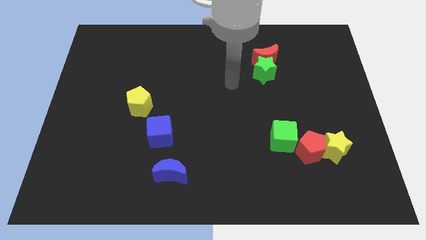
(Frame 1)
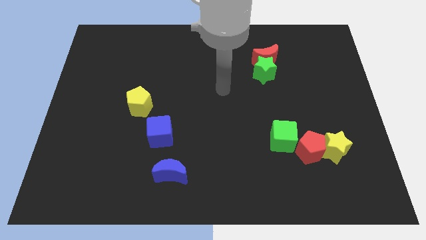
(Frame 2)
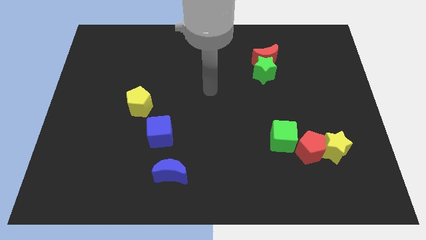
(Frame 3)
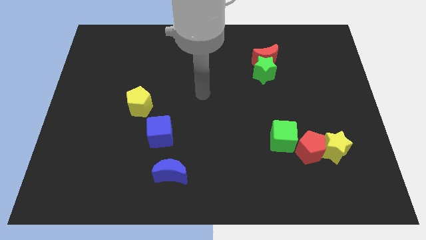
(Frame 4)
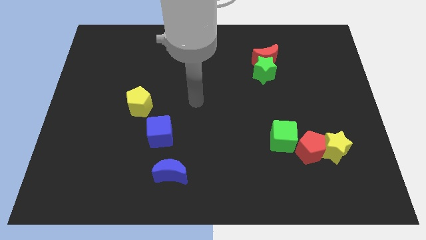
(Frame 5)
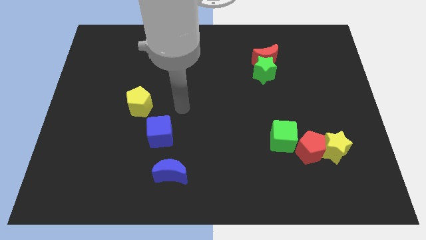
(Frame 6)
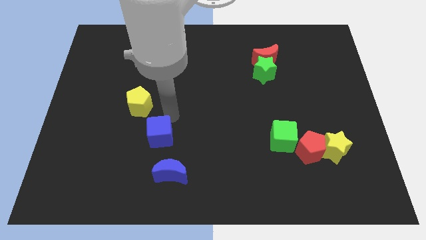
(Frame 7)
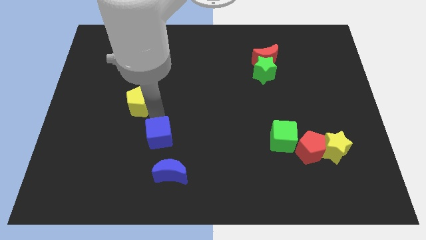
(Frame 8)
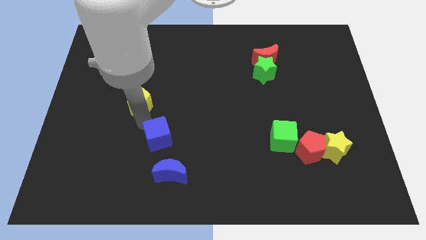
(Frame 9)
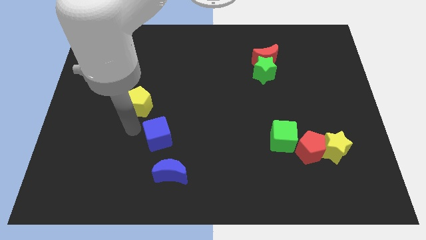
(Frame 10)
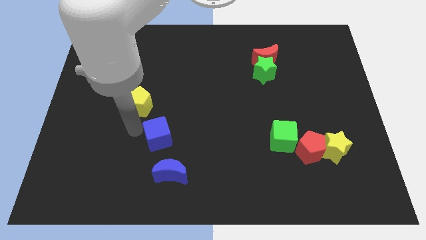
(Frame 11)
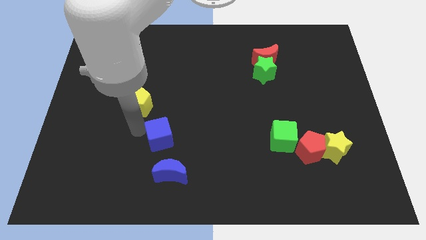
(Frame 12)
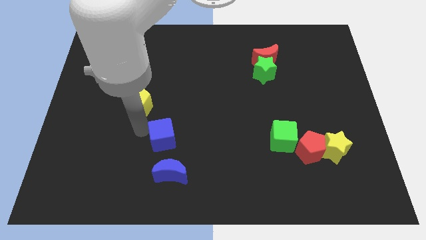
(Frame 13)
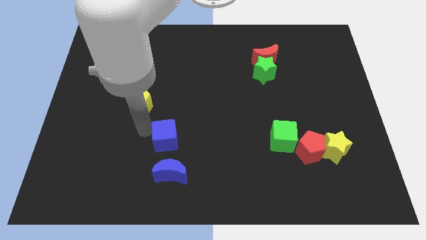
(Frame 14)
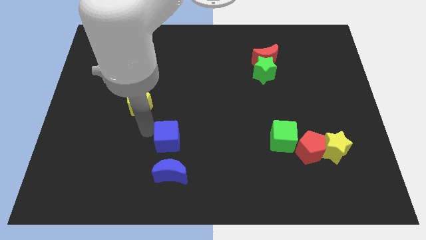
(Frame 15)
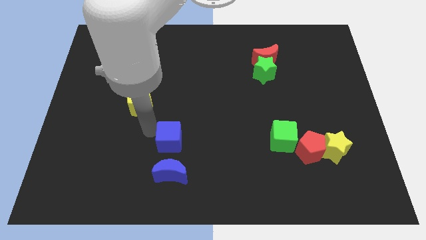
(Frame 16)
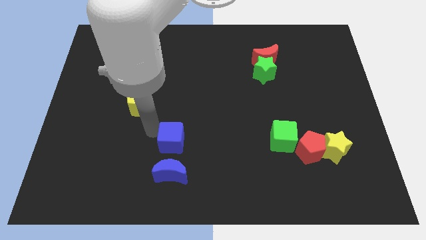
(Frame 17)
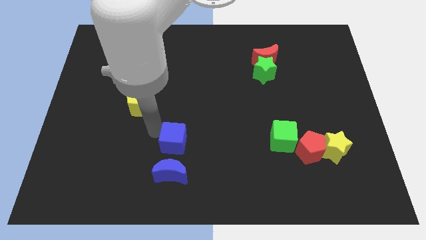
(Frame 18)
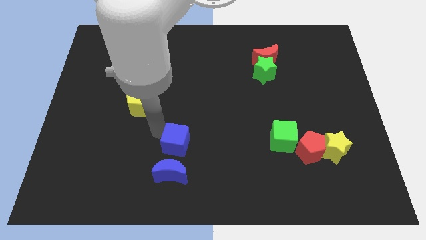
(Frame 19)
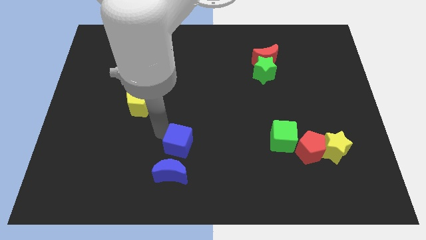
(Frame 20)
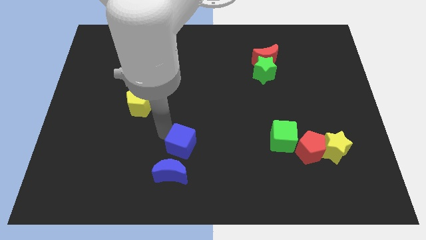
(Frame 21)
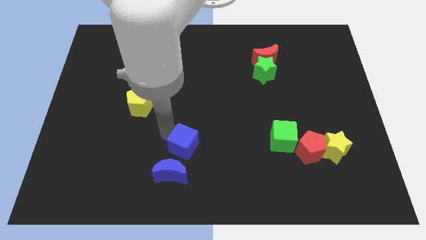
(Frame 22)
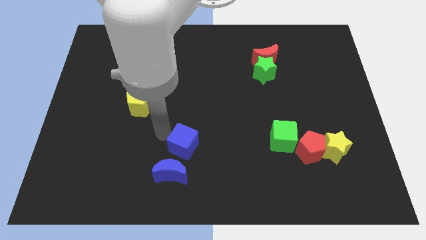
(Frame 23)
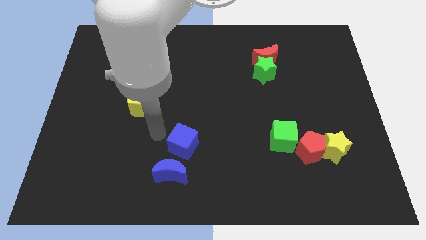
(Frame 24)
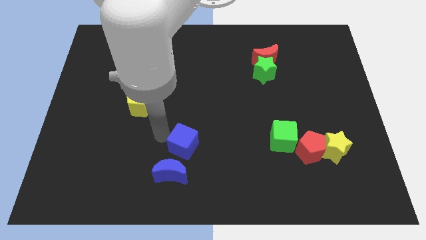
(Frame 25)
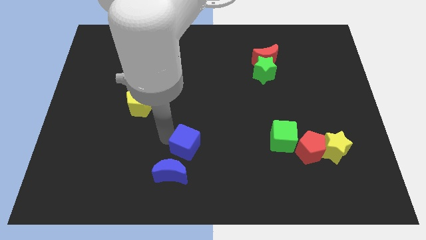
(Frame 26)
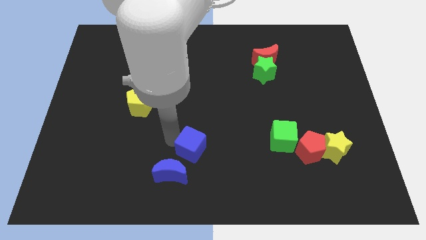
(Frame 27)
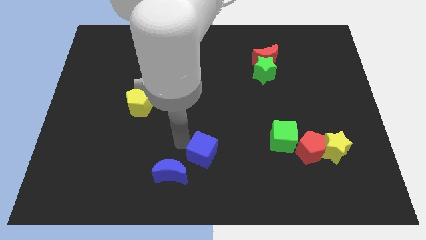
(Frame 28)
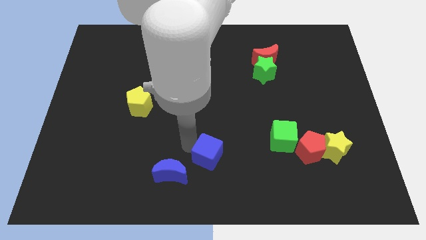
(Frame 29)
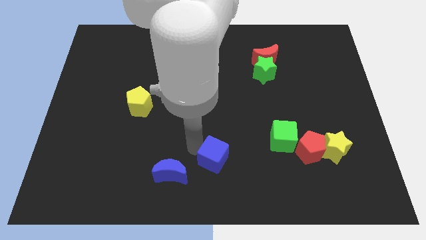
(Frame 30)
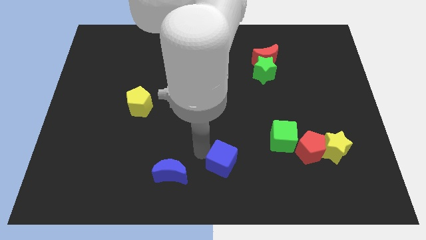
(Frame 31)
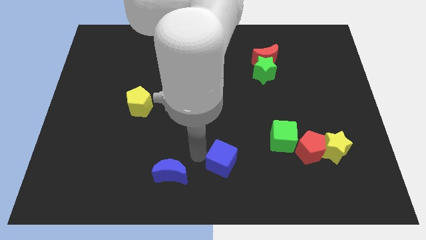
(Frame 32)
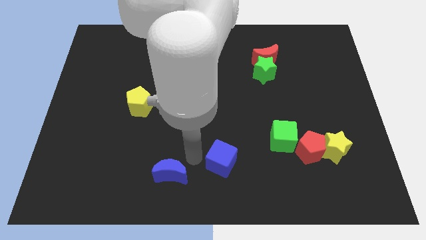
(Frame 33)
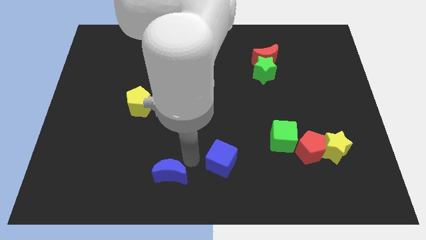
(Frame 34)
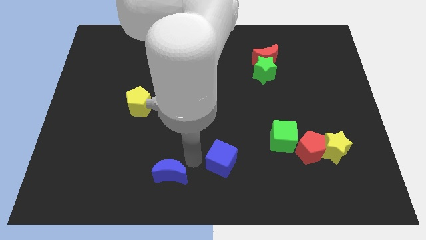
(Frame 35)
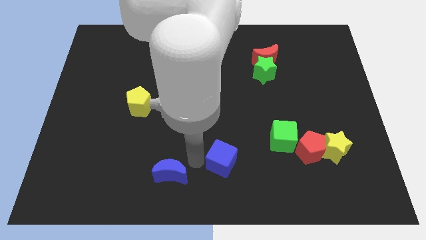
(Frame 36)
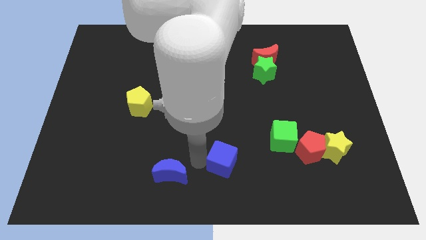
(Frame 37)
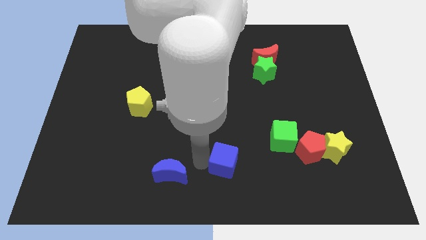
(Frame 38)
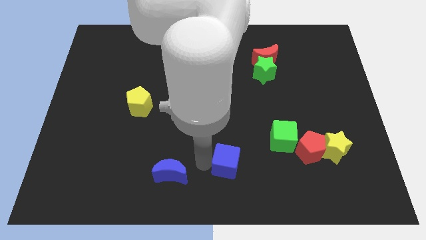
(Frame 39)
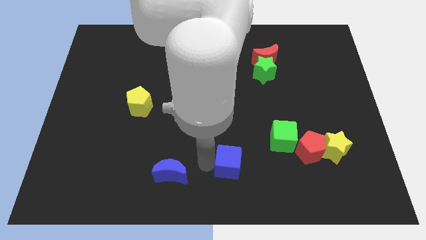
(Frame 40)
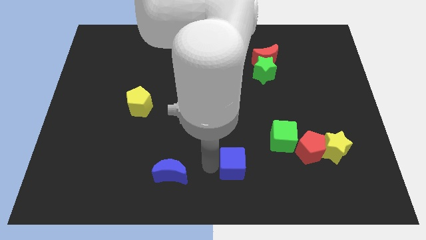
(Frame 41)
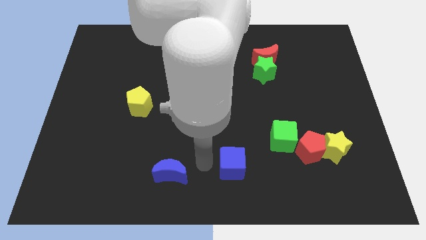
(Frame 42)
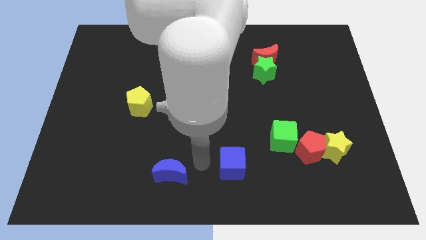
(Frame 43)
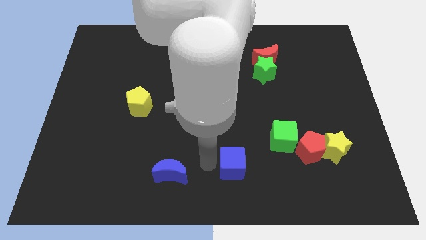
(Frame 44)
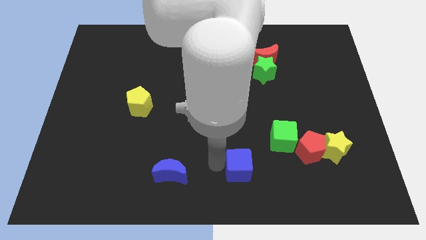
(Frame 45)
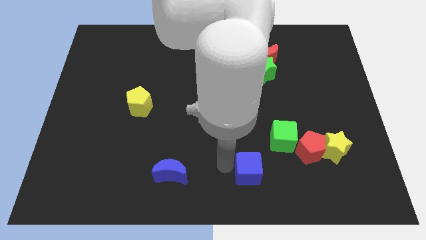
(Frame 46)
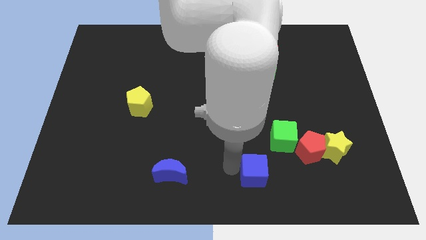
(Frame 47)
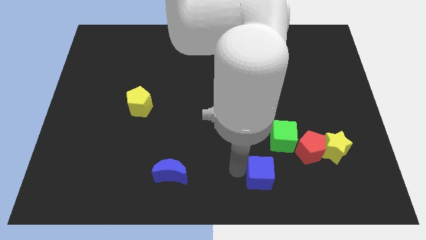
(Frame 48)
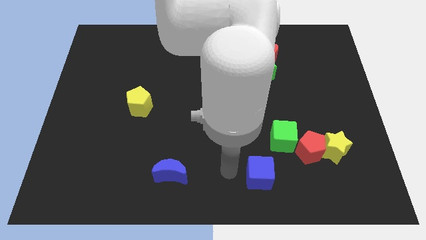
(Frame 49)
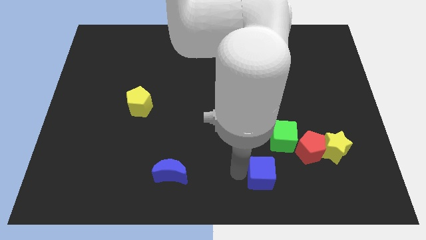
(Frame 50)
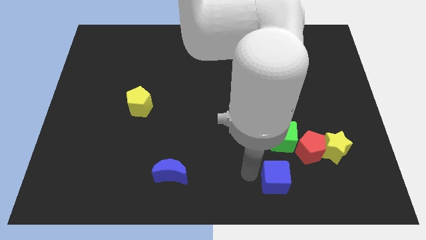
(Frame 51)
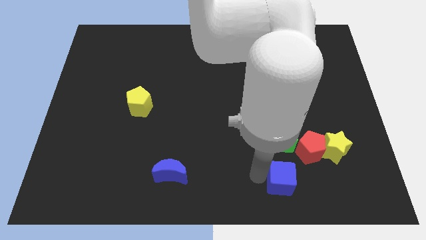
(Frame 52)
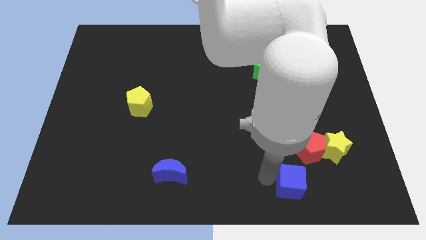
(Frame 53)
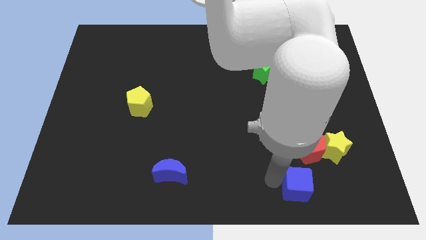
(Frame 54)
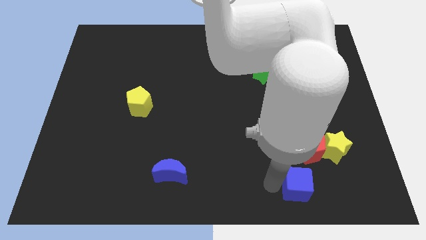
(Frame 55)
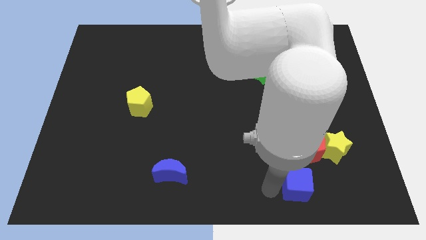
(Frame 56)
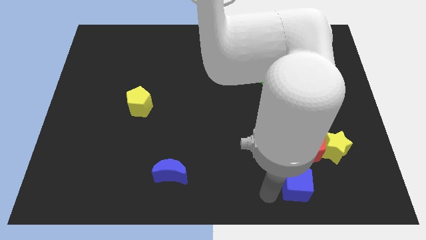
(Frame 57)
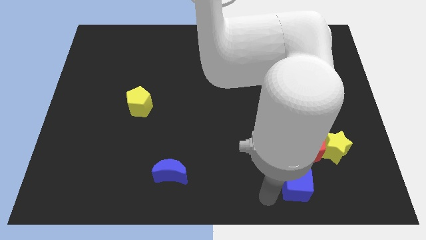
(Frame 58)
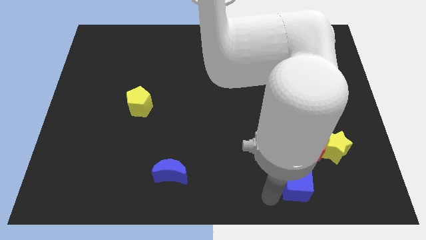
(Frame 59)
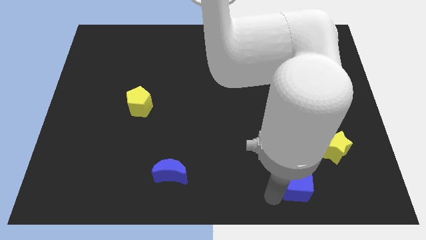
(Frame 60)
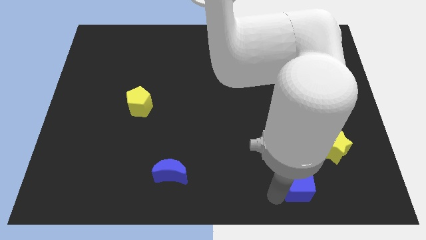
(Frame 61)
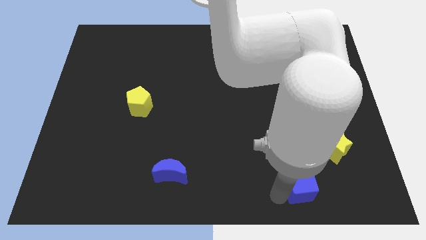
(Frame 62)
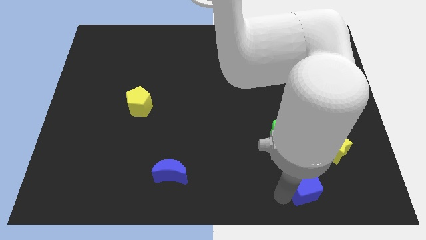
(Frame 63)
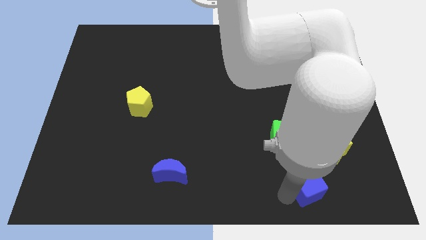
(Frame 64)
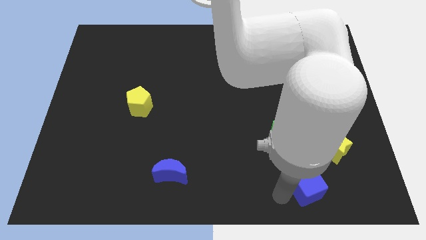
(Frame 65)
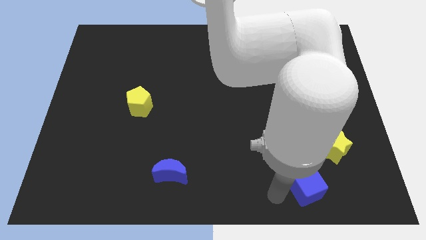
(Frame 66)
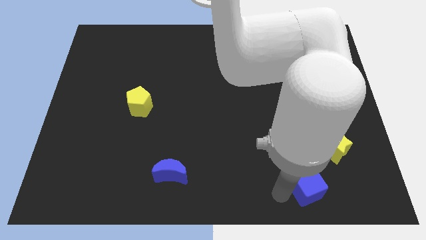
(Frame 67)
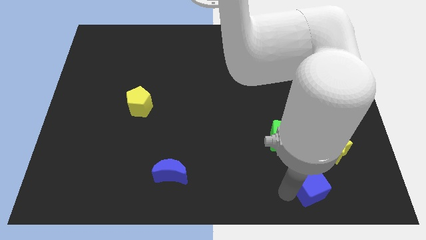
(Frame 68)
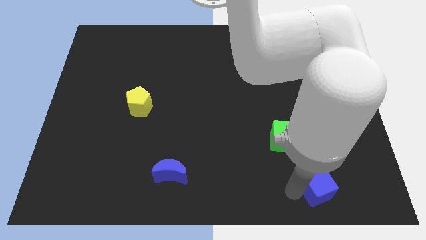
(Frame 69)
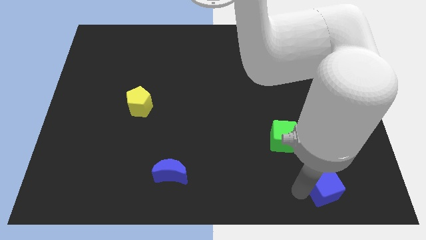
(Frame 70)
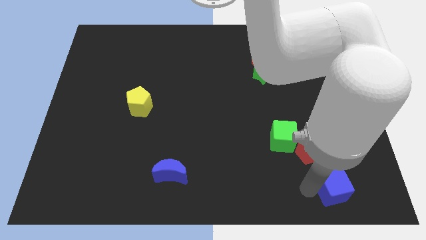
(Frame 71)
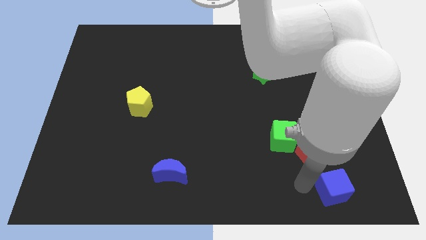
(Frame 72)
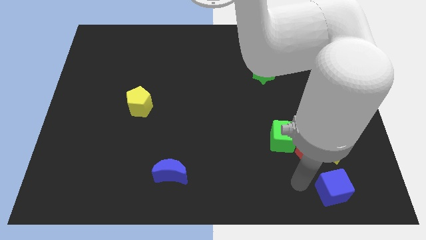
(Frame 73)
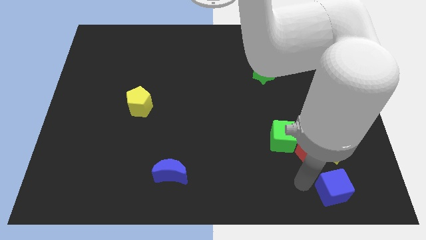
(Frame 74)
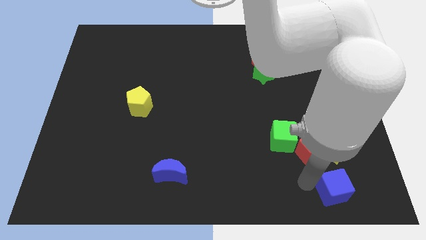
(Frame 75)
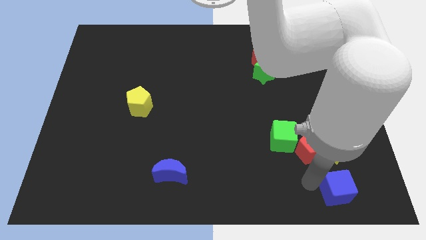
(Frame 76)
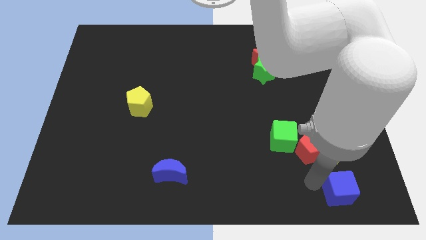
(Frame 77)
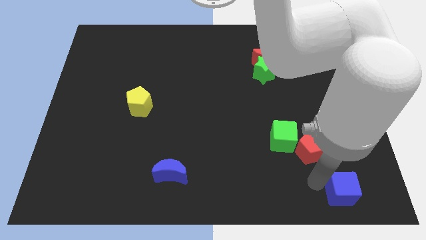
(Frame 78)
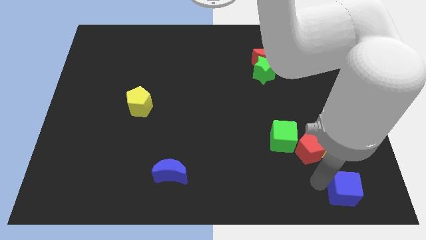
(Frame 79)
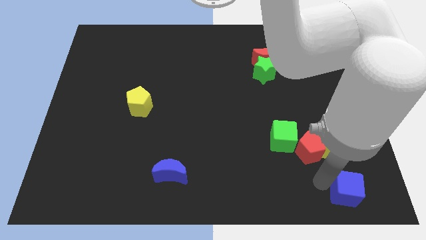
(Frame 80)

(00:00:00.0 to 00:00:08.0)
slide the blue cube to the bottom right
